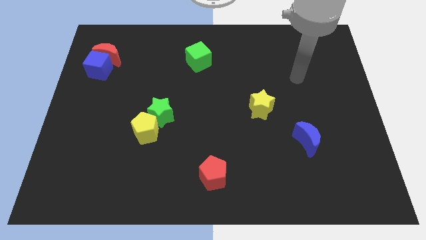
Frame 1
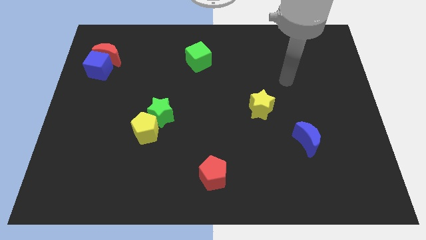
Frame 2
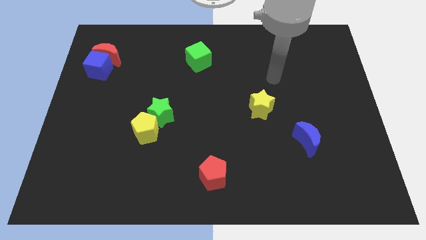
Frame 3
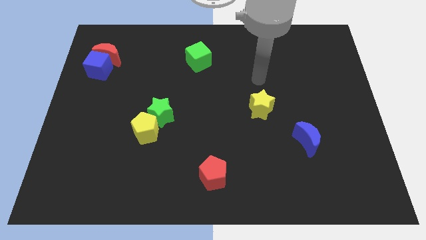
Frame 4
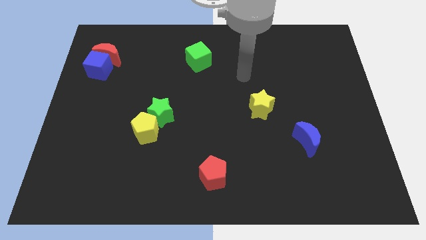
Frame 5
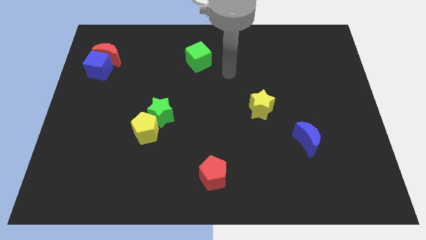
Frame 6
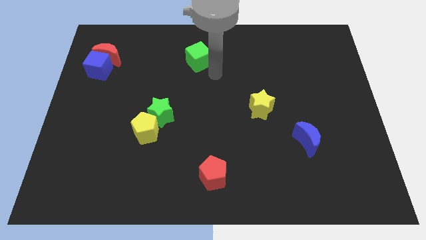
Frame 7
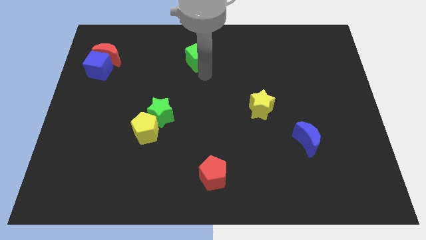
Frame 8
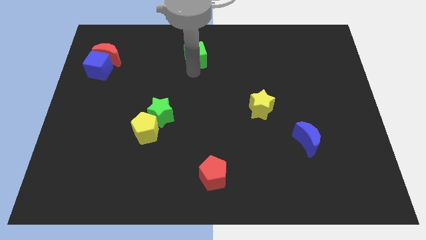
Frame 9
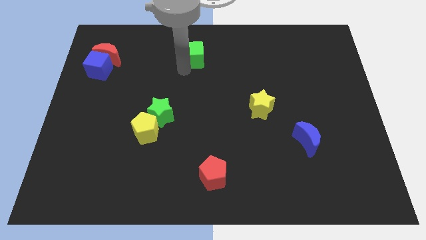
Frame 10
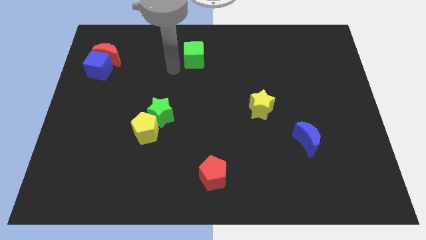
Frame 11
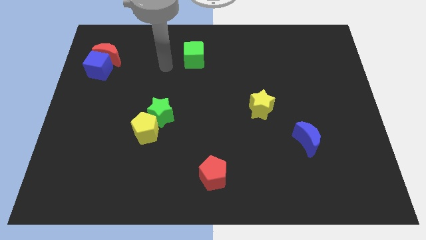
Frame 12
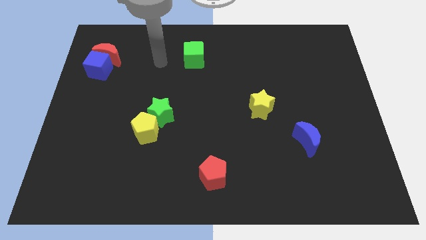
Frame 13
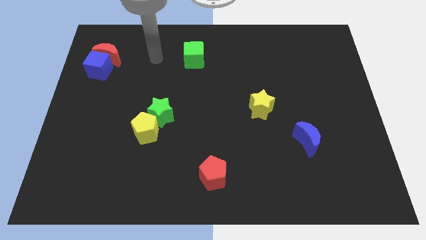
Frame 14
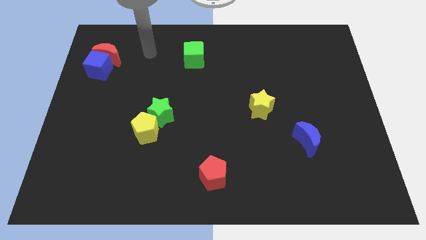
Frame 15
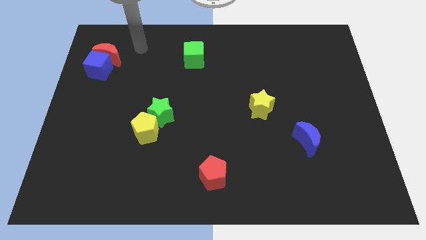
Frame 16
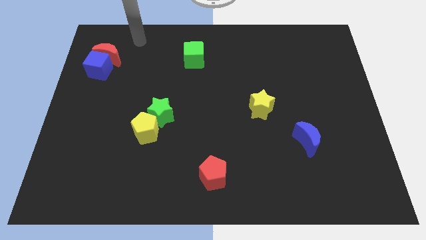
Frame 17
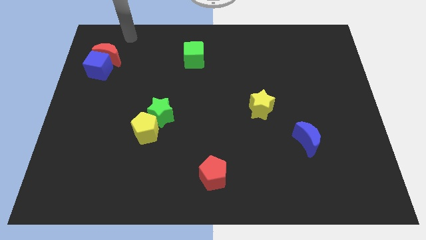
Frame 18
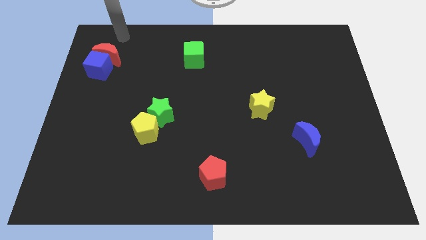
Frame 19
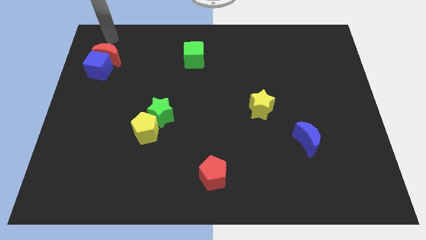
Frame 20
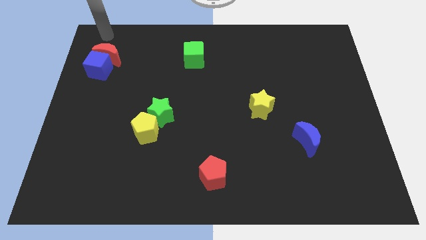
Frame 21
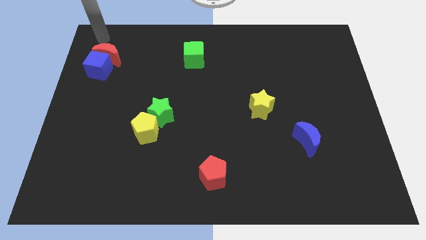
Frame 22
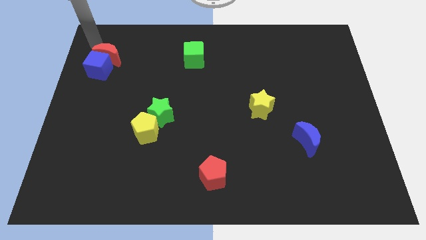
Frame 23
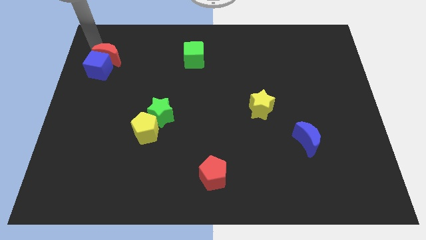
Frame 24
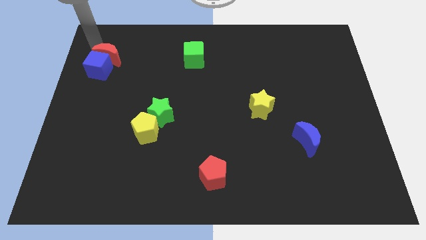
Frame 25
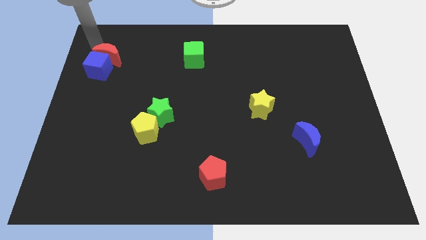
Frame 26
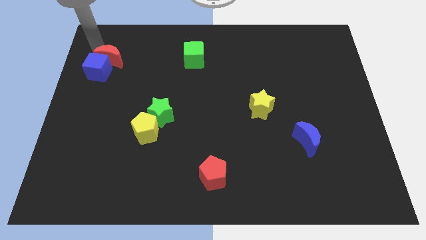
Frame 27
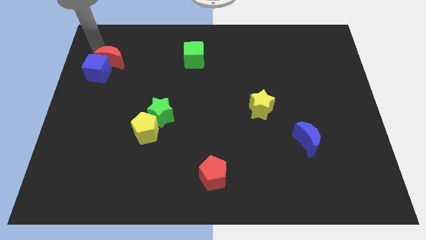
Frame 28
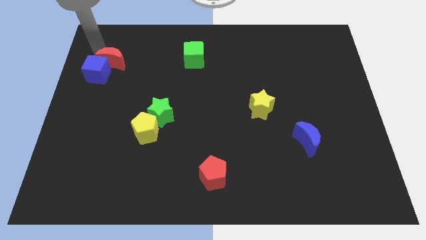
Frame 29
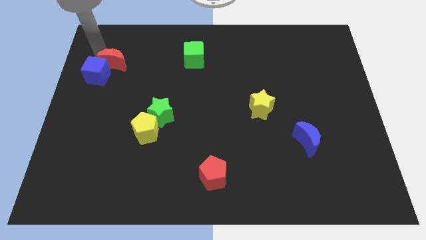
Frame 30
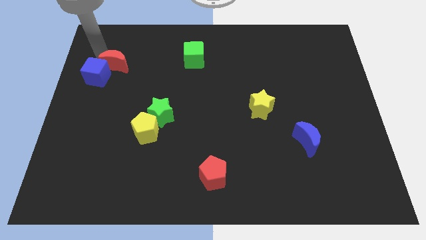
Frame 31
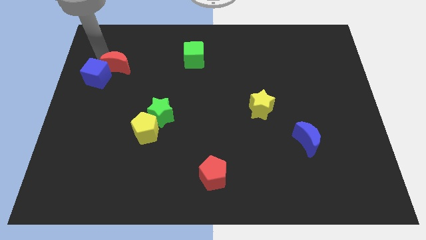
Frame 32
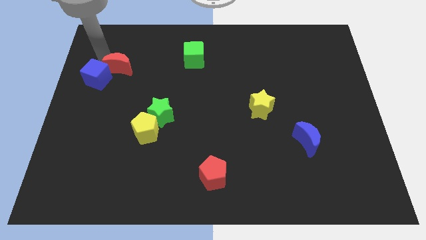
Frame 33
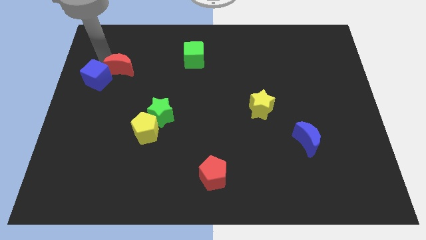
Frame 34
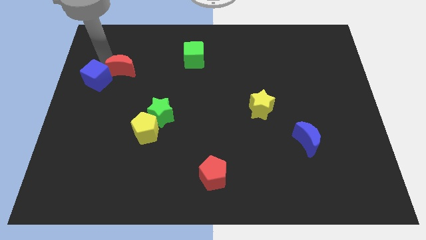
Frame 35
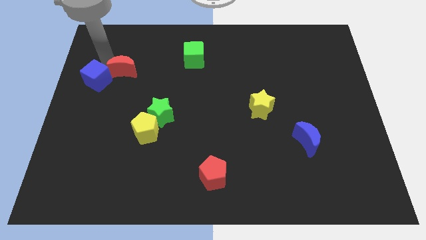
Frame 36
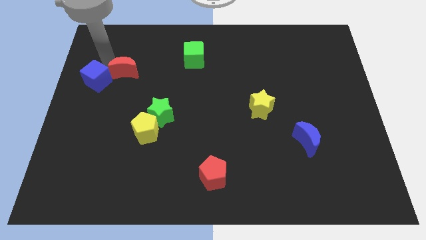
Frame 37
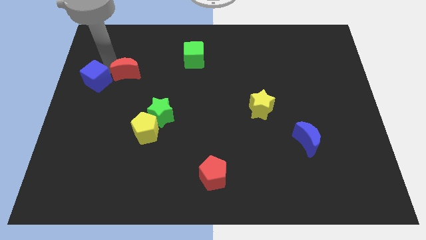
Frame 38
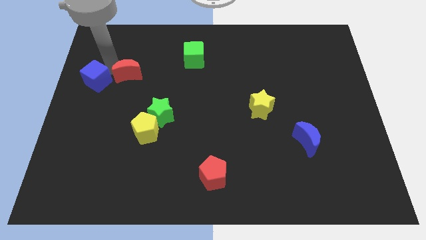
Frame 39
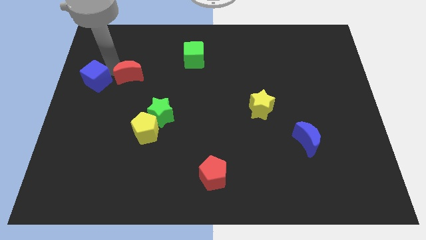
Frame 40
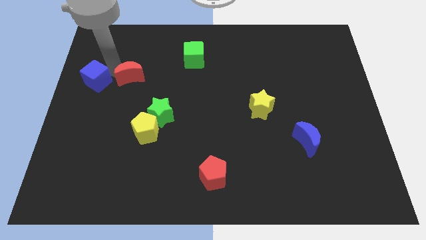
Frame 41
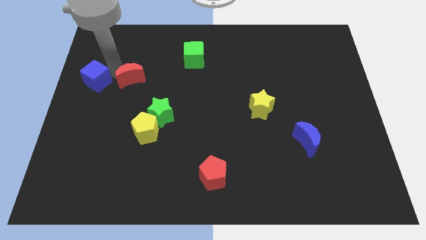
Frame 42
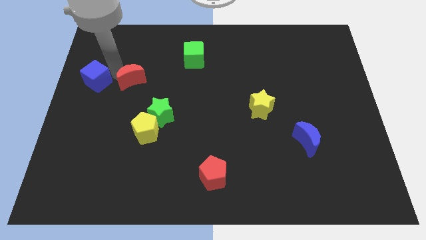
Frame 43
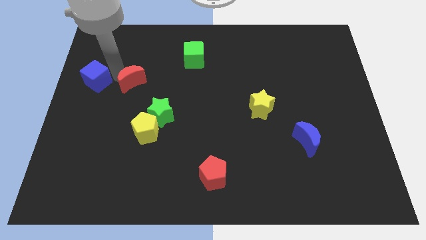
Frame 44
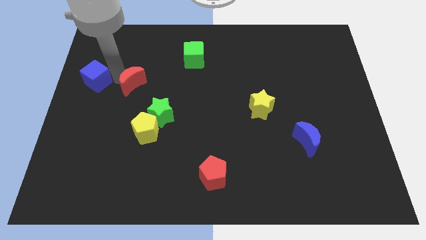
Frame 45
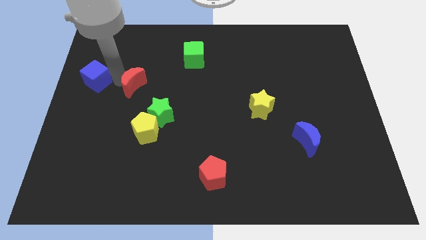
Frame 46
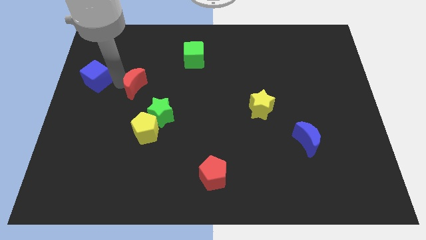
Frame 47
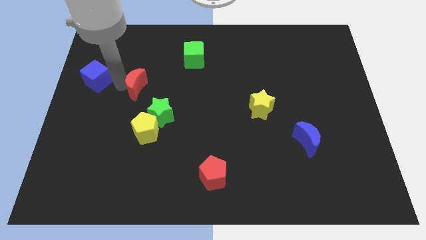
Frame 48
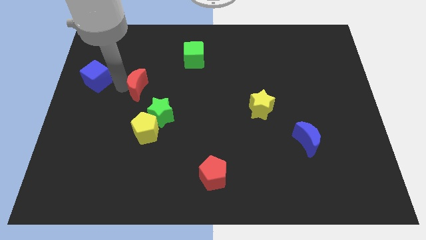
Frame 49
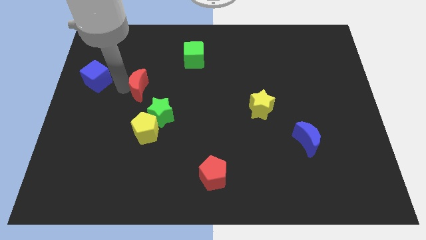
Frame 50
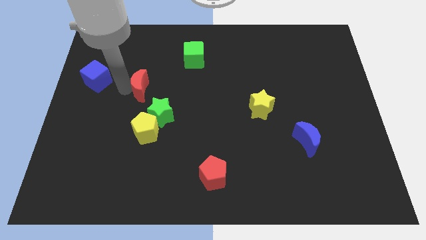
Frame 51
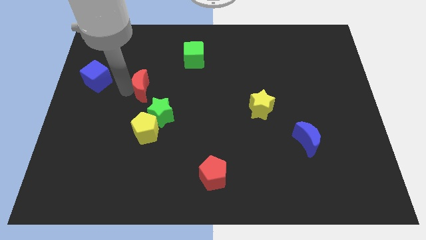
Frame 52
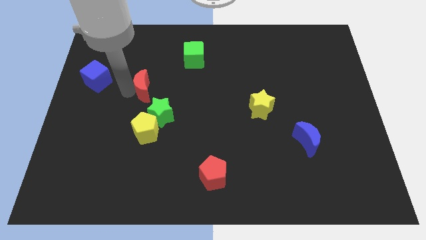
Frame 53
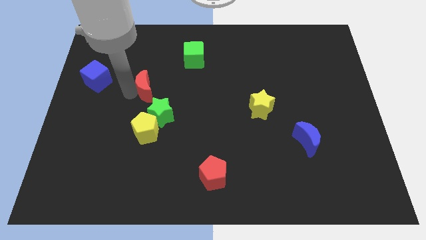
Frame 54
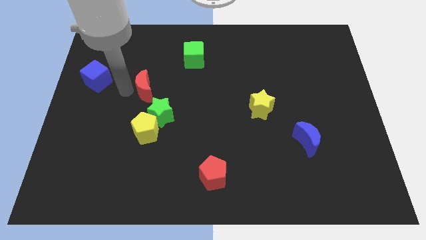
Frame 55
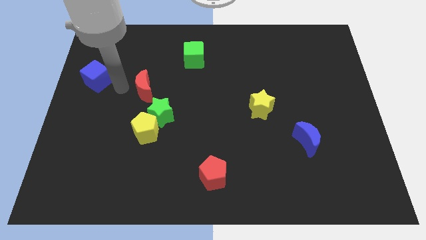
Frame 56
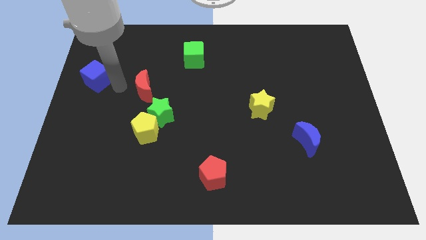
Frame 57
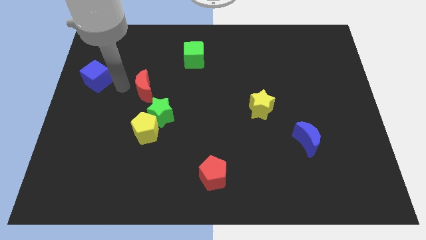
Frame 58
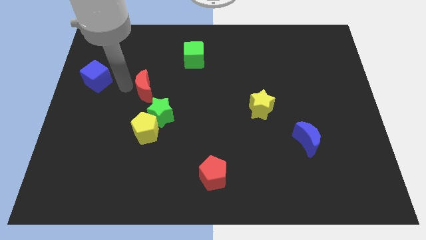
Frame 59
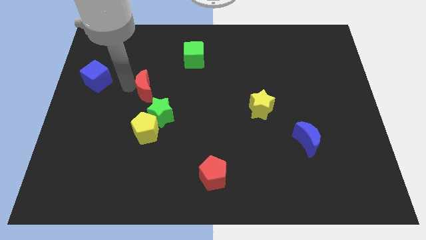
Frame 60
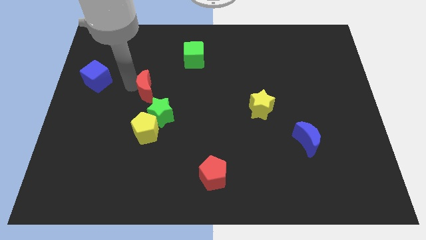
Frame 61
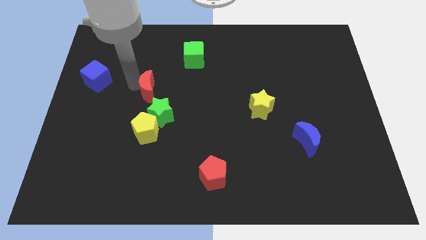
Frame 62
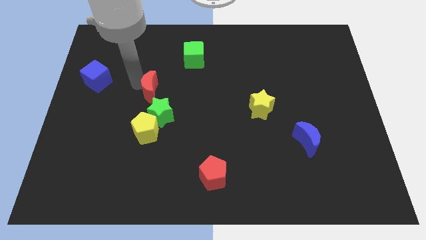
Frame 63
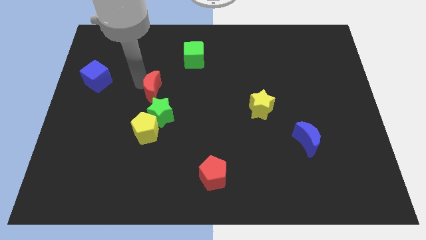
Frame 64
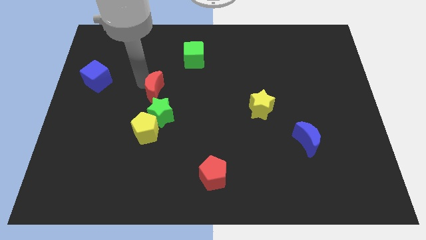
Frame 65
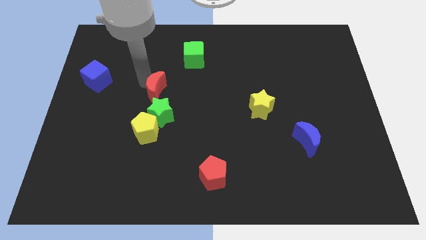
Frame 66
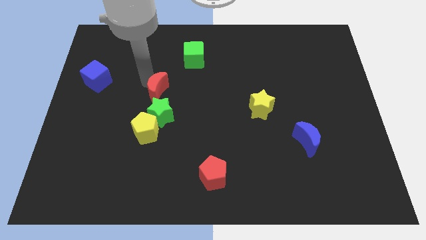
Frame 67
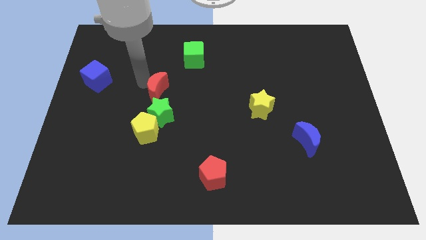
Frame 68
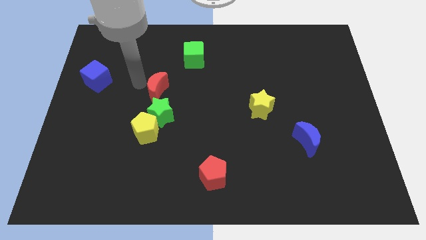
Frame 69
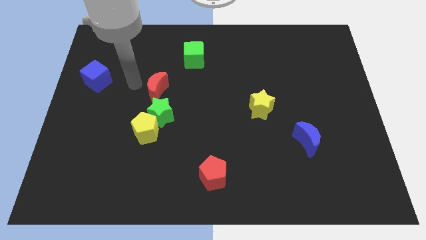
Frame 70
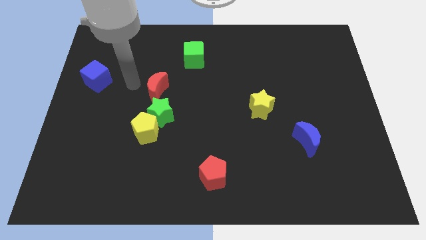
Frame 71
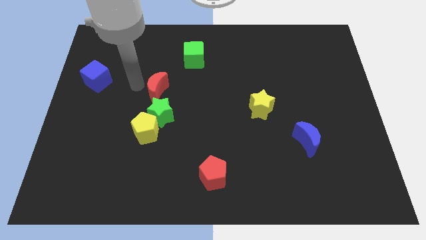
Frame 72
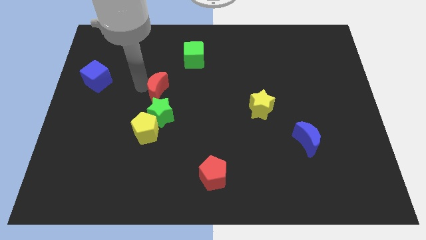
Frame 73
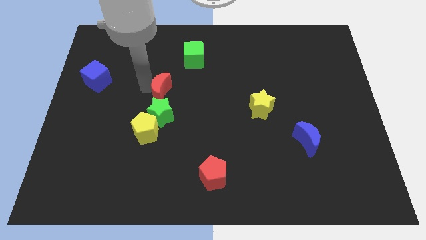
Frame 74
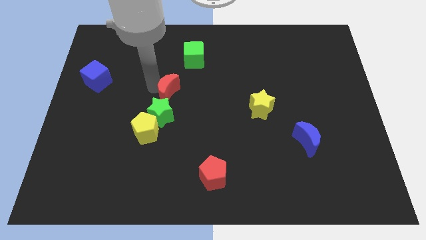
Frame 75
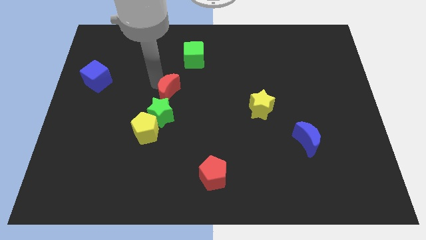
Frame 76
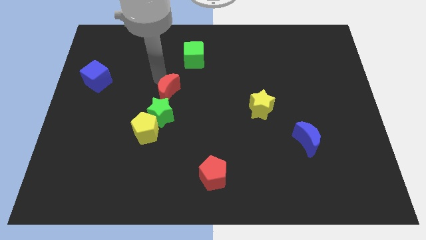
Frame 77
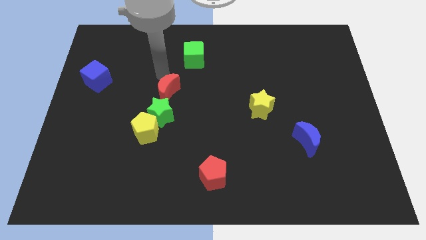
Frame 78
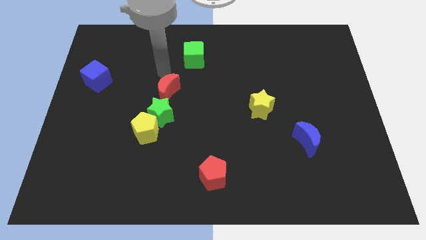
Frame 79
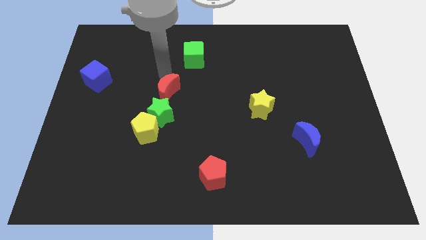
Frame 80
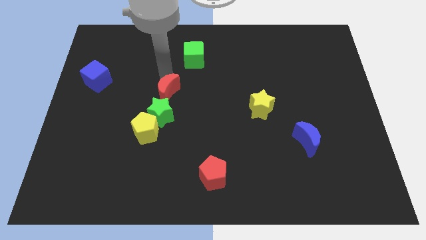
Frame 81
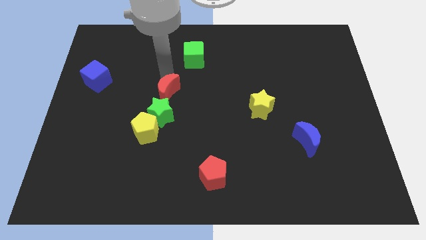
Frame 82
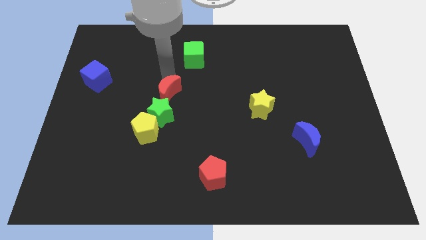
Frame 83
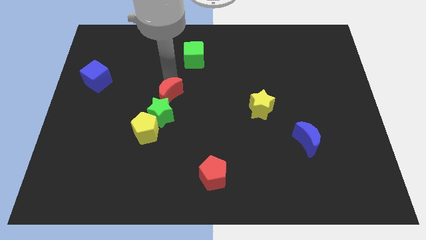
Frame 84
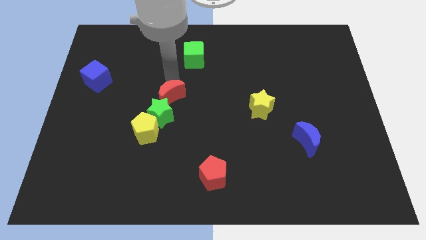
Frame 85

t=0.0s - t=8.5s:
move the red moon to the top right side of the yellow pentagon
